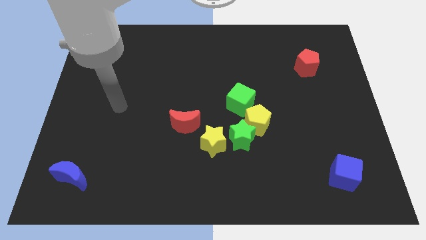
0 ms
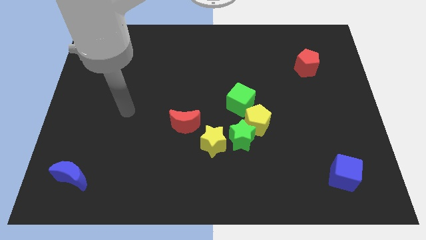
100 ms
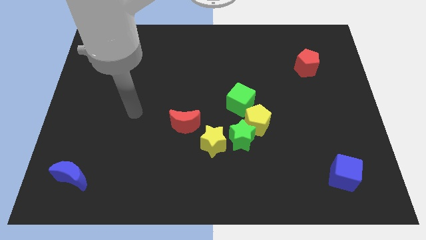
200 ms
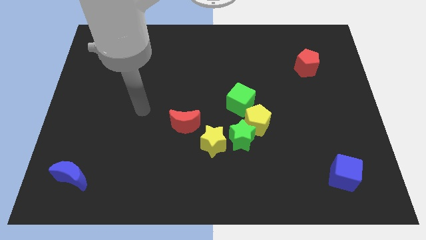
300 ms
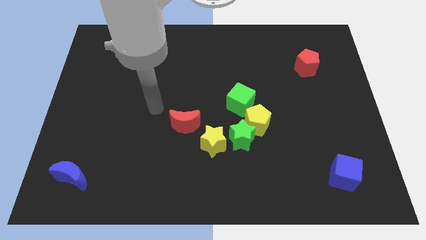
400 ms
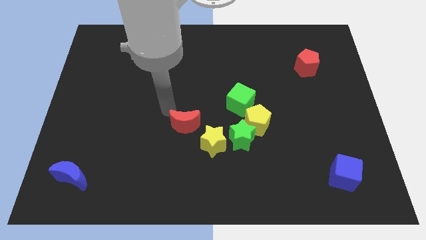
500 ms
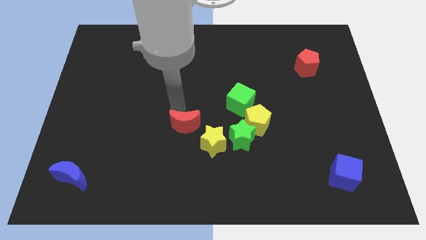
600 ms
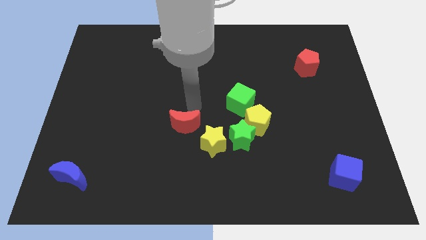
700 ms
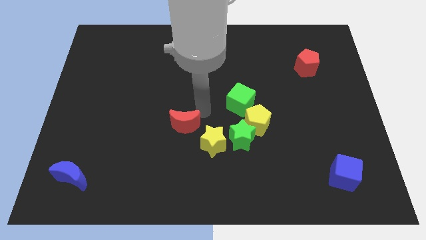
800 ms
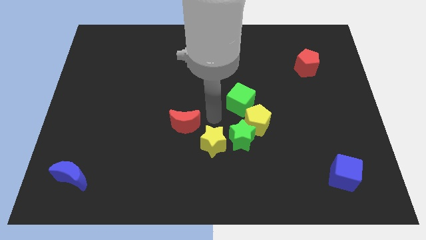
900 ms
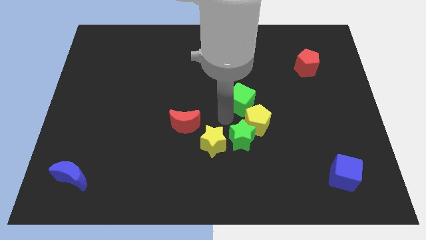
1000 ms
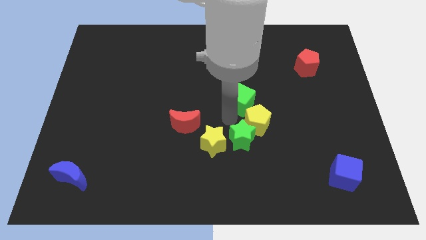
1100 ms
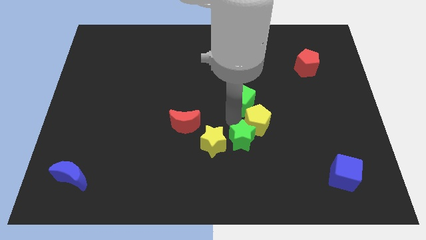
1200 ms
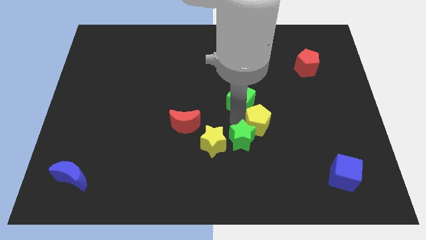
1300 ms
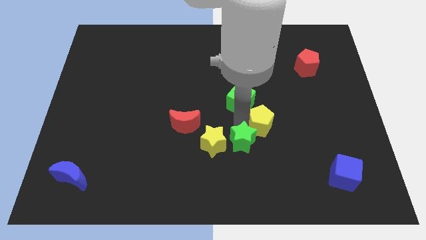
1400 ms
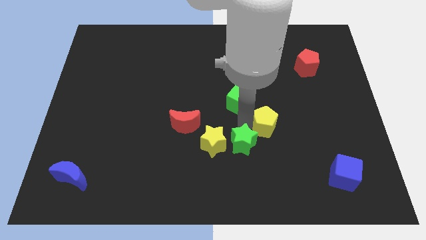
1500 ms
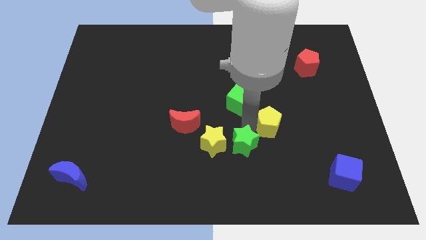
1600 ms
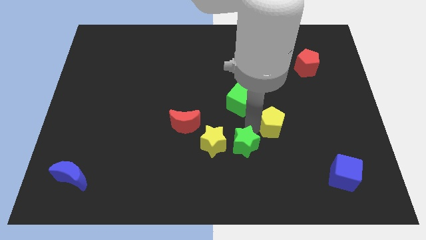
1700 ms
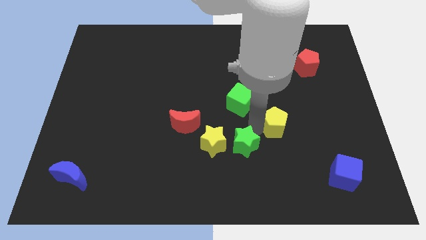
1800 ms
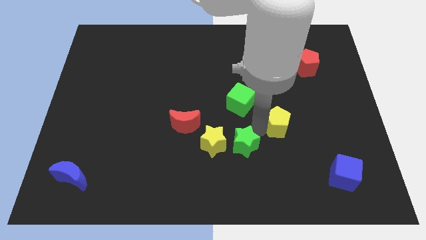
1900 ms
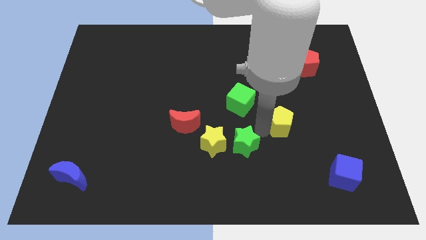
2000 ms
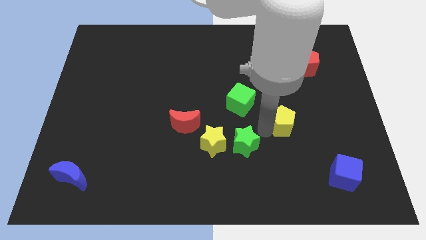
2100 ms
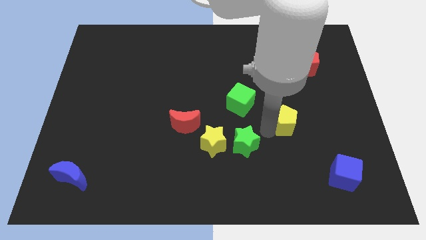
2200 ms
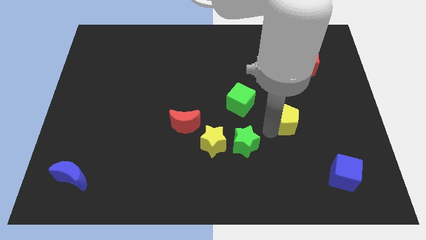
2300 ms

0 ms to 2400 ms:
move the yellow pentagon away from the green star and green cube

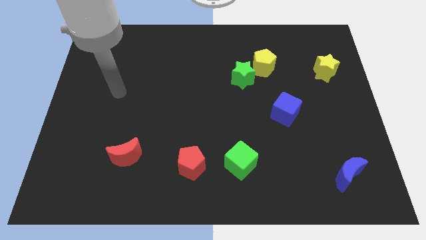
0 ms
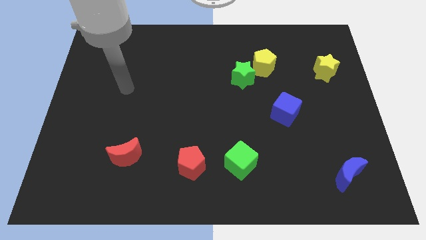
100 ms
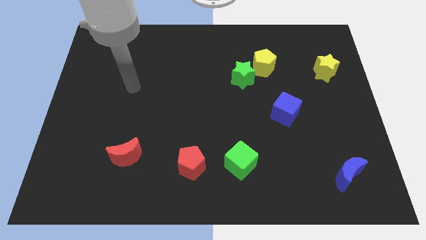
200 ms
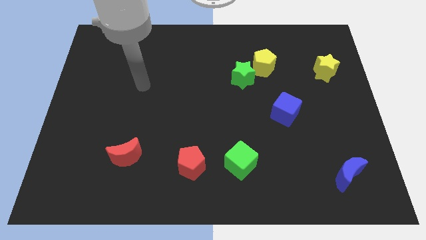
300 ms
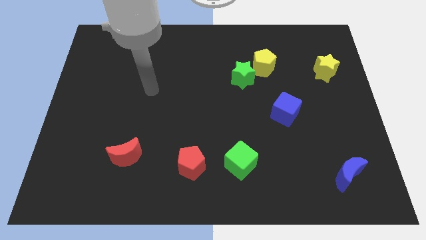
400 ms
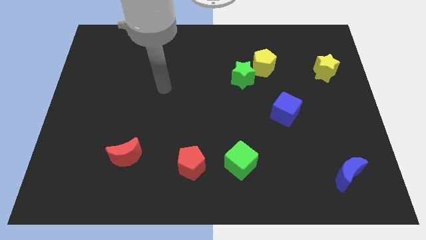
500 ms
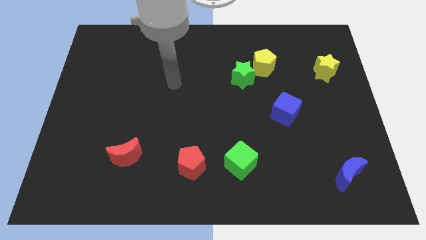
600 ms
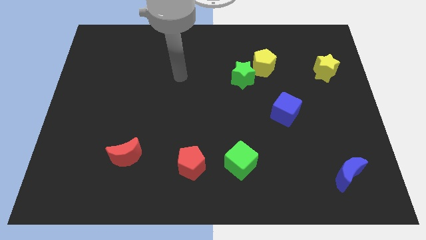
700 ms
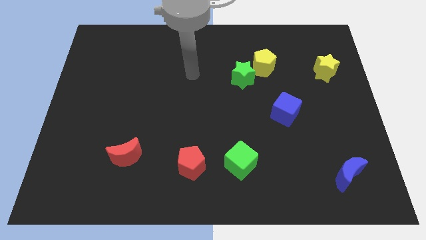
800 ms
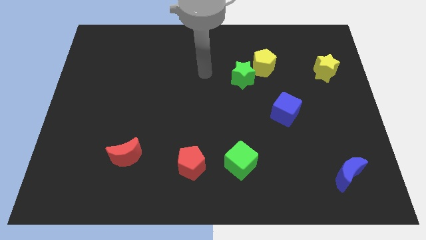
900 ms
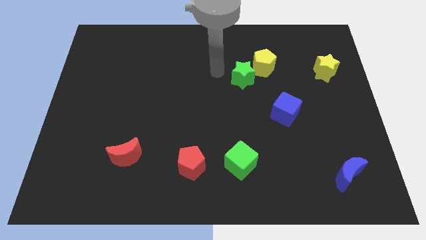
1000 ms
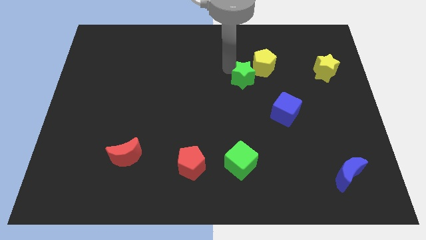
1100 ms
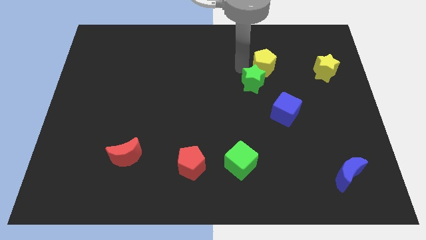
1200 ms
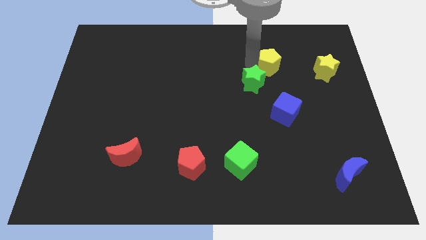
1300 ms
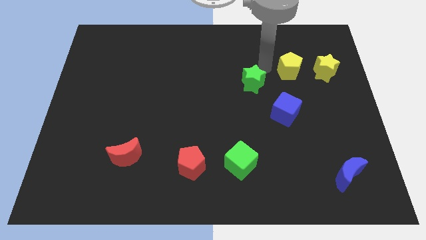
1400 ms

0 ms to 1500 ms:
move the green star away from the yellow pentagon

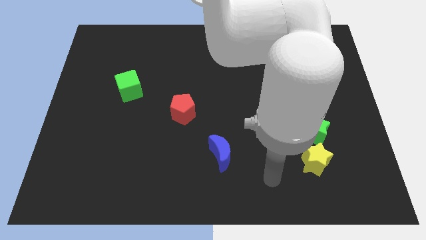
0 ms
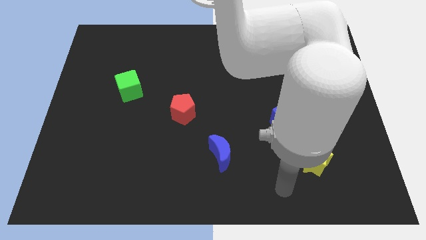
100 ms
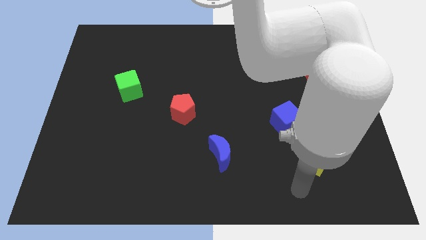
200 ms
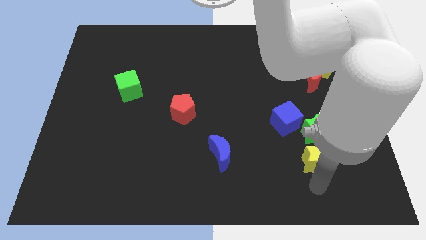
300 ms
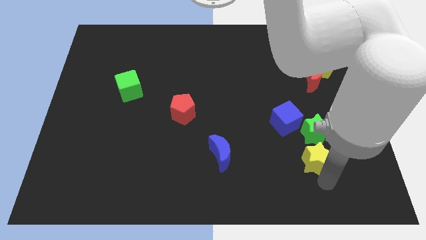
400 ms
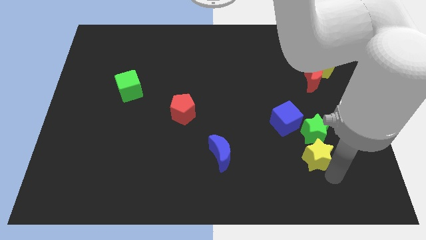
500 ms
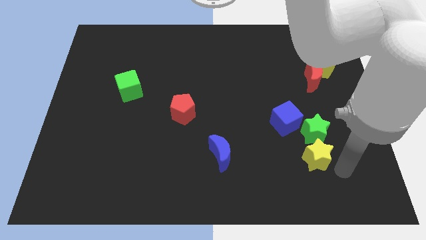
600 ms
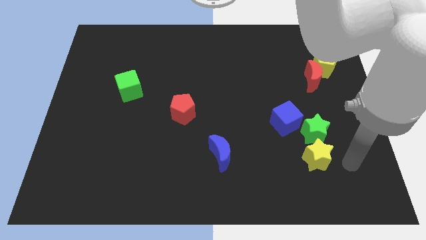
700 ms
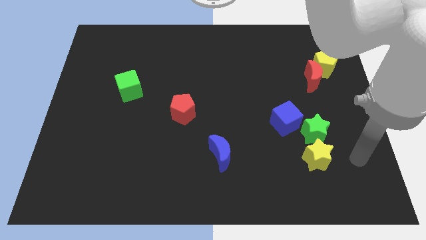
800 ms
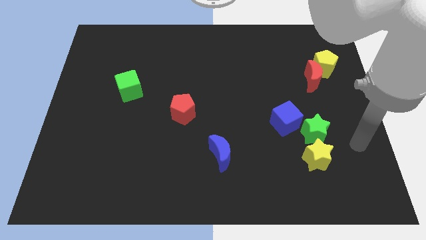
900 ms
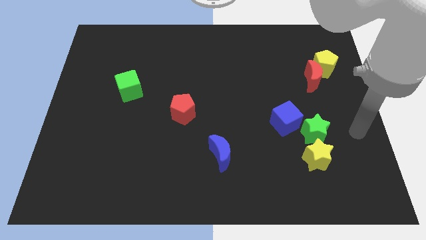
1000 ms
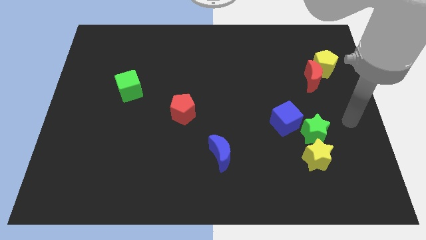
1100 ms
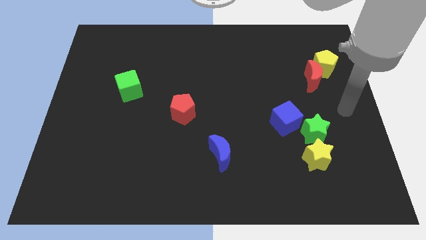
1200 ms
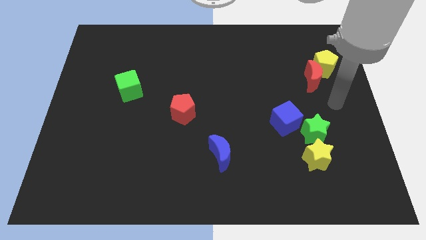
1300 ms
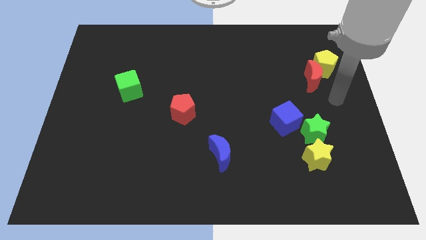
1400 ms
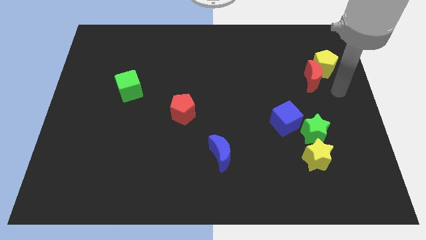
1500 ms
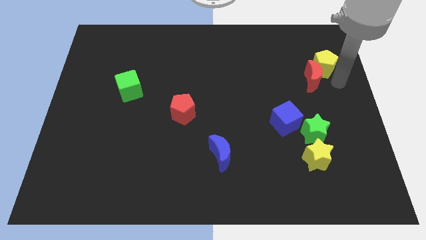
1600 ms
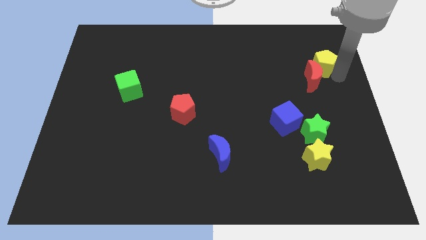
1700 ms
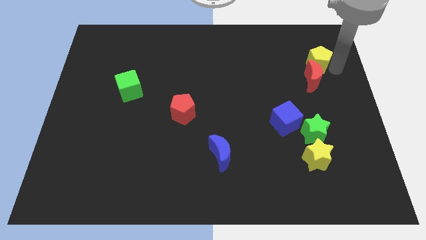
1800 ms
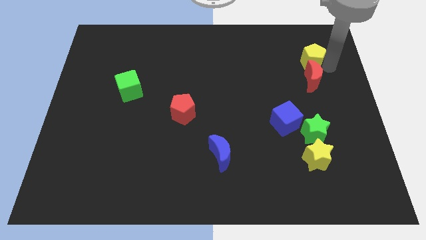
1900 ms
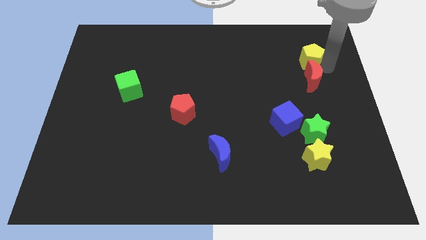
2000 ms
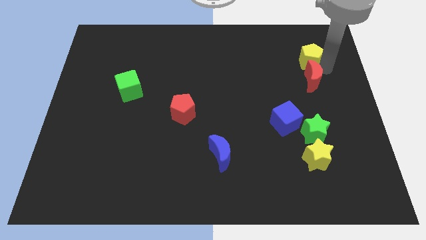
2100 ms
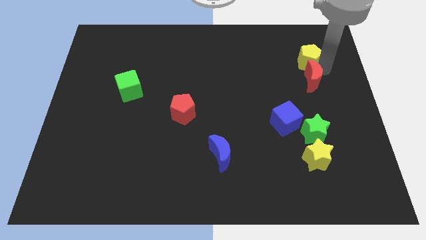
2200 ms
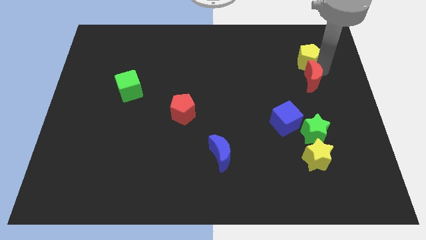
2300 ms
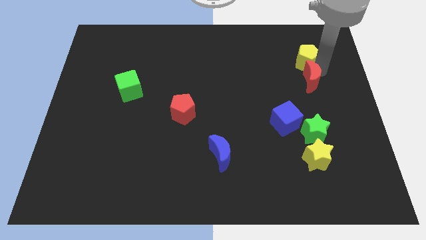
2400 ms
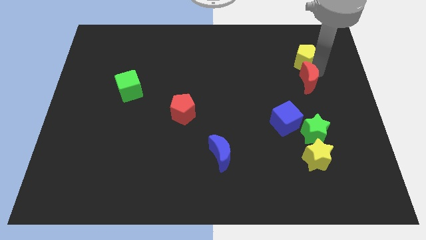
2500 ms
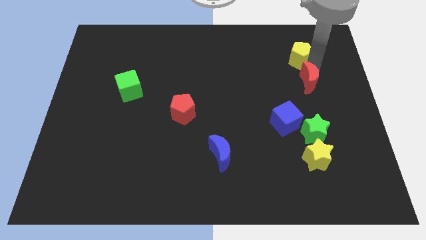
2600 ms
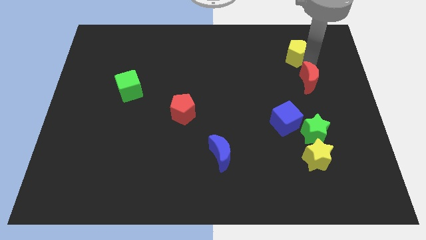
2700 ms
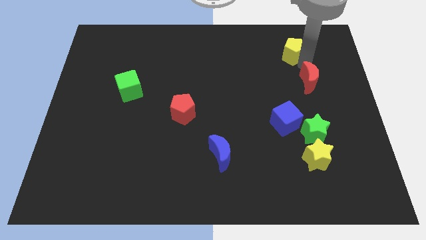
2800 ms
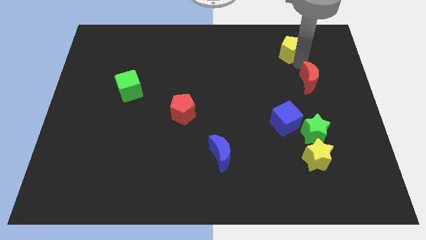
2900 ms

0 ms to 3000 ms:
separate the red moon from the yellow pentagon

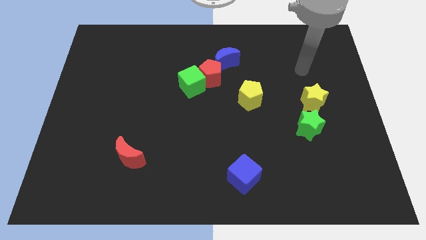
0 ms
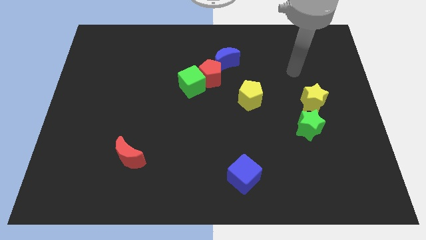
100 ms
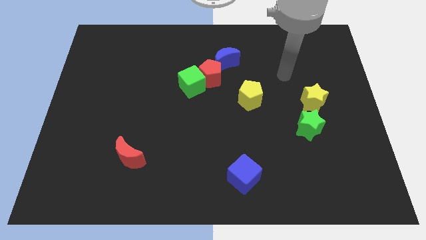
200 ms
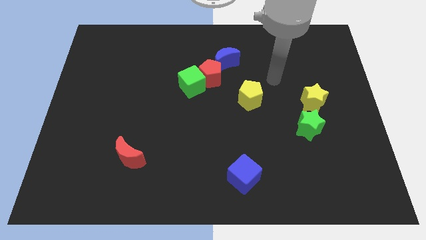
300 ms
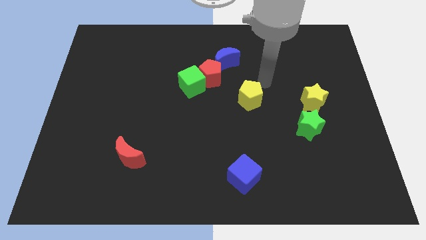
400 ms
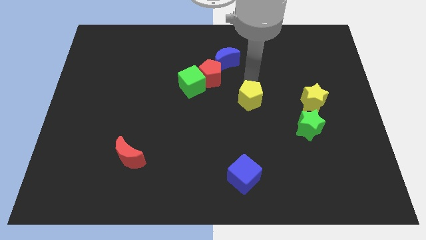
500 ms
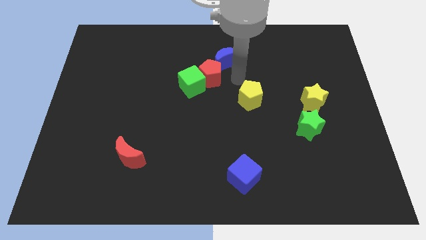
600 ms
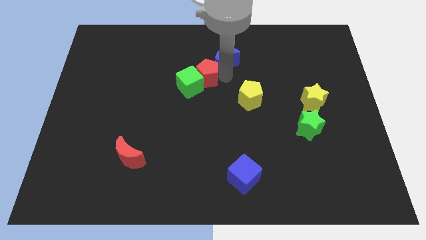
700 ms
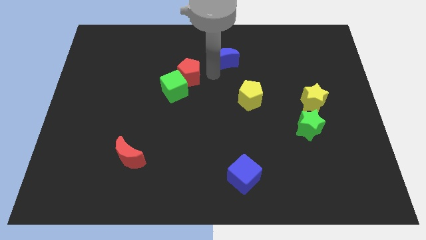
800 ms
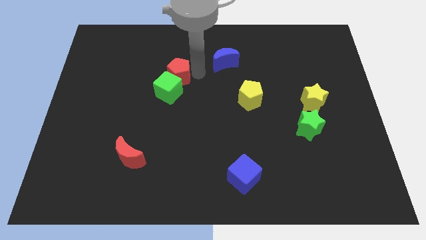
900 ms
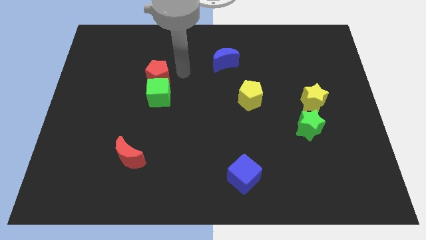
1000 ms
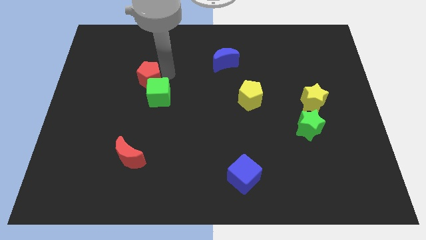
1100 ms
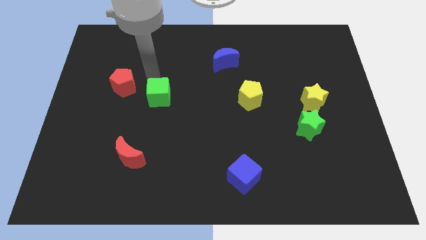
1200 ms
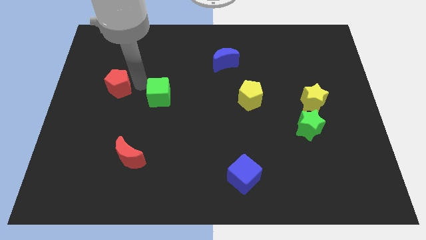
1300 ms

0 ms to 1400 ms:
pull the green cube apart from the red pentagon

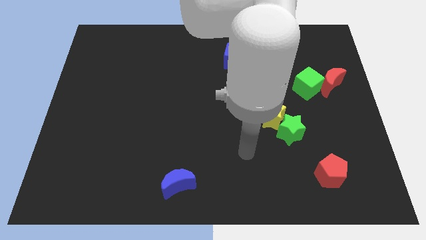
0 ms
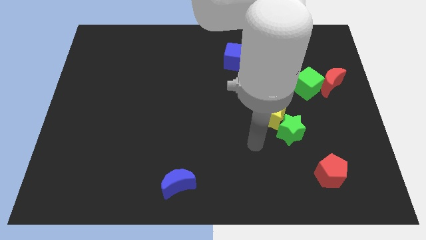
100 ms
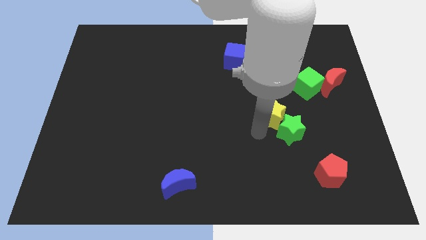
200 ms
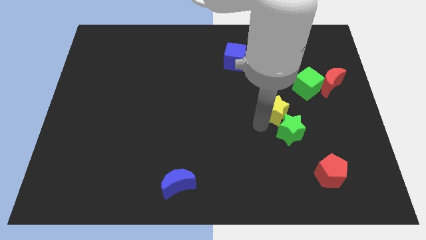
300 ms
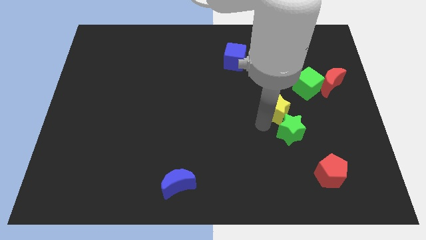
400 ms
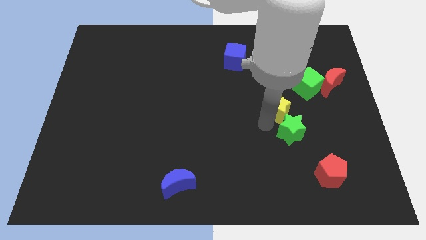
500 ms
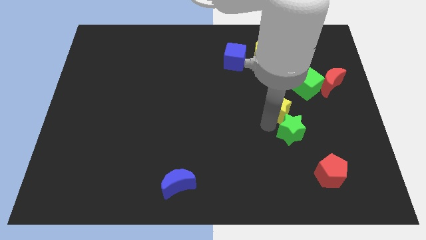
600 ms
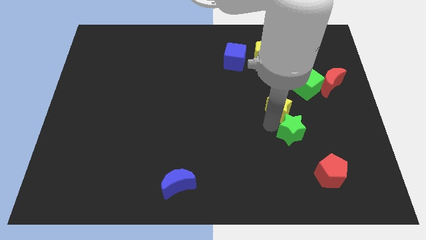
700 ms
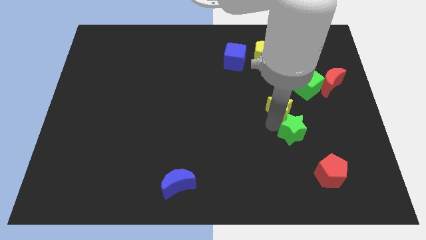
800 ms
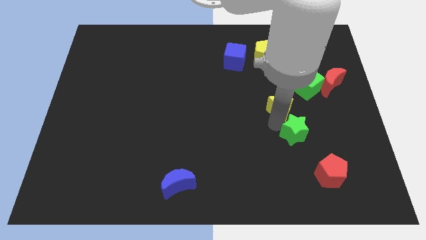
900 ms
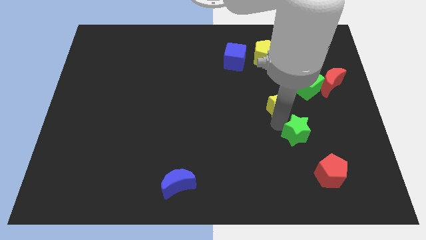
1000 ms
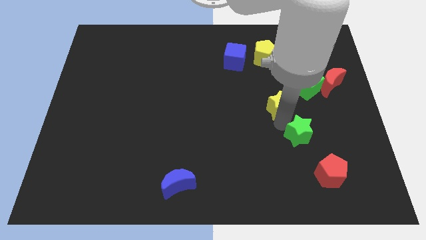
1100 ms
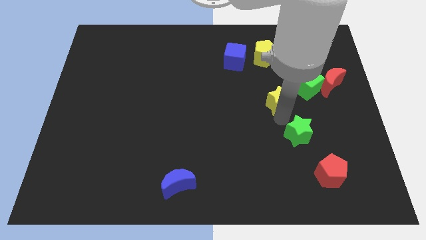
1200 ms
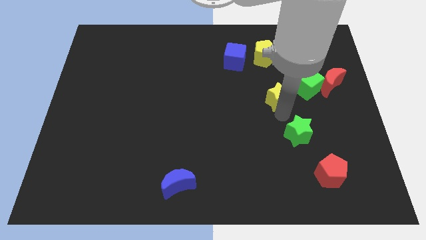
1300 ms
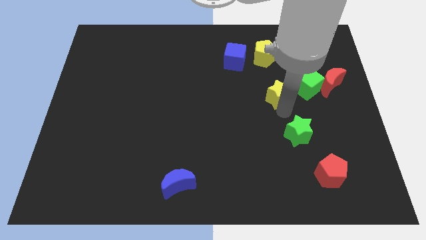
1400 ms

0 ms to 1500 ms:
move the green star away from the yellow star
